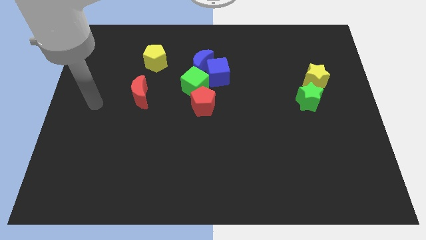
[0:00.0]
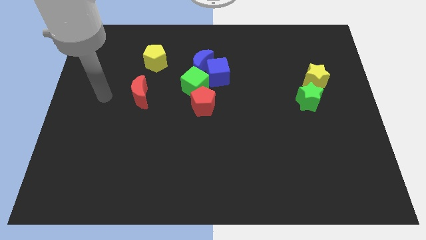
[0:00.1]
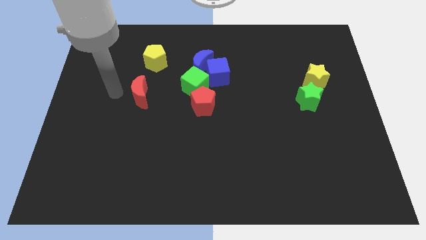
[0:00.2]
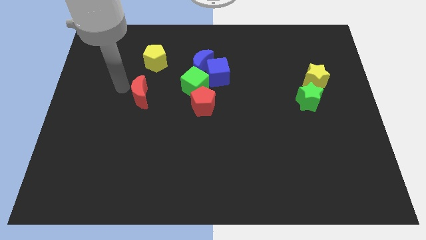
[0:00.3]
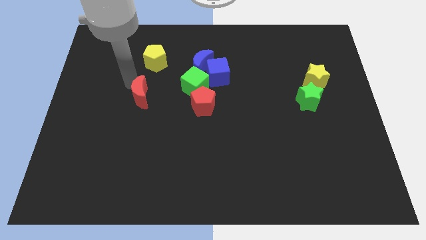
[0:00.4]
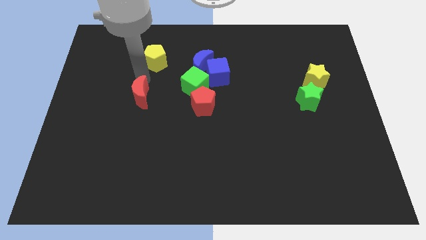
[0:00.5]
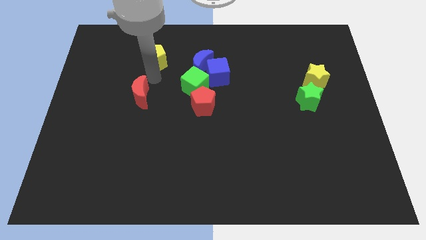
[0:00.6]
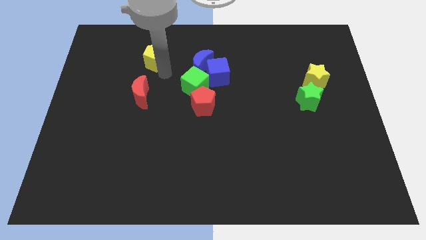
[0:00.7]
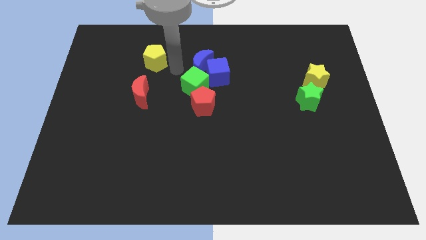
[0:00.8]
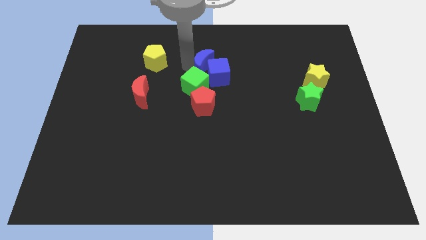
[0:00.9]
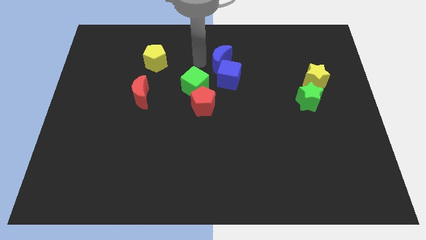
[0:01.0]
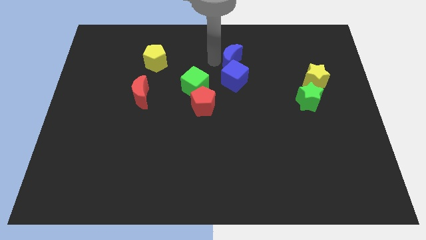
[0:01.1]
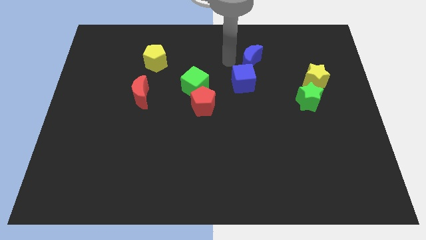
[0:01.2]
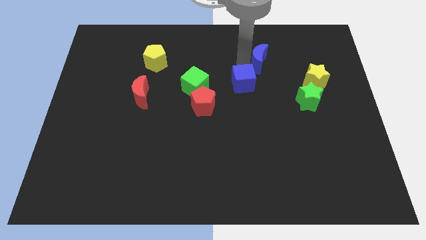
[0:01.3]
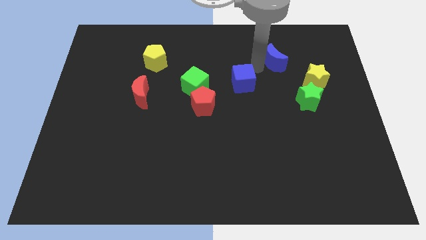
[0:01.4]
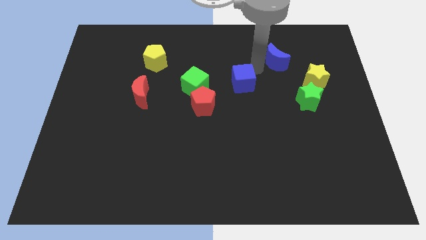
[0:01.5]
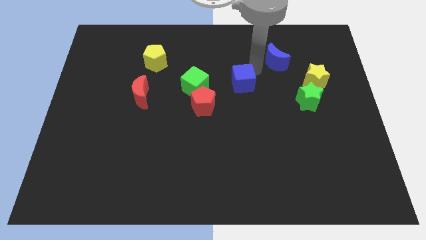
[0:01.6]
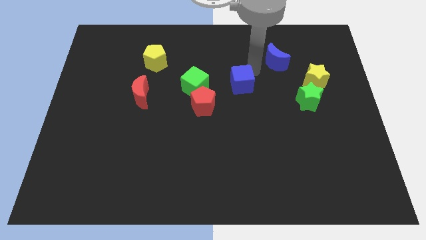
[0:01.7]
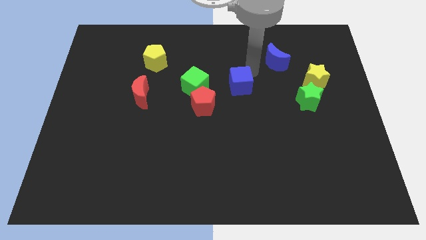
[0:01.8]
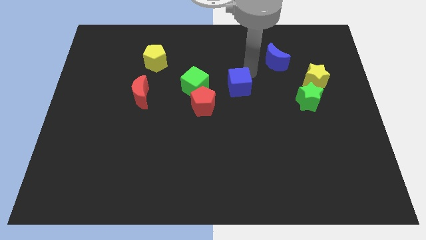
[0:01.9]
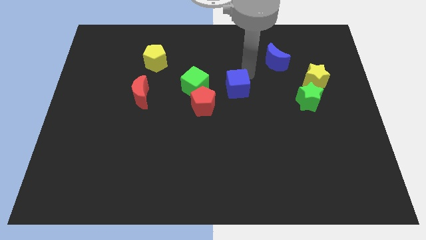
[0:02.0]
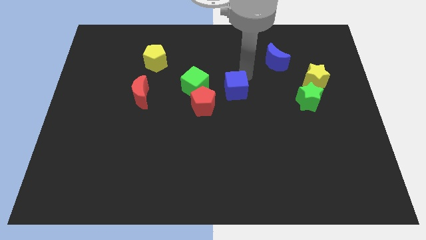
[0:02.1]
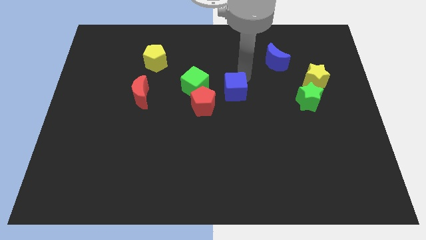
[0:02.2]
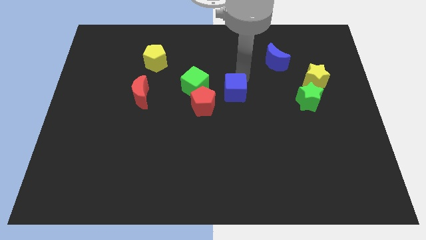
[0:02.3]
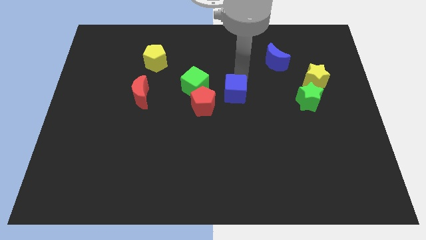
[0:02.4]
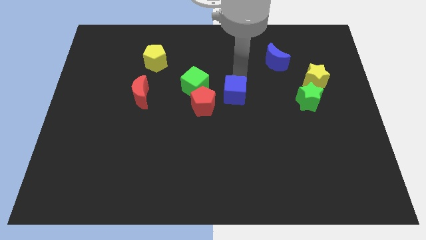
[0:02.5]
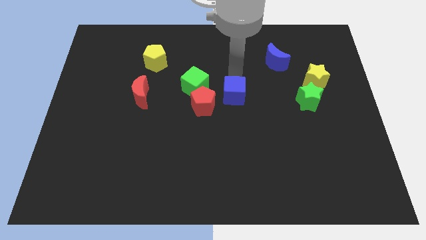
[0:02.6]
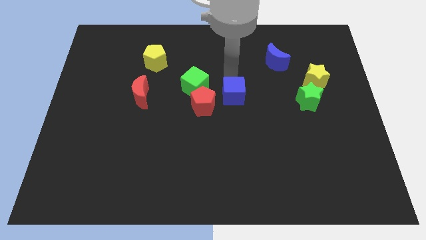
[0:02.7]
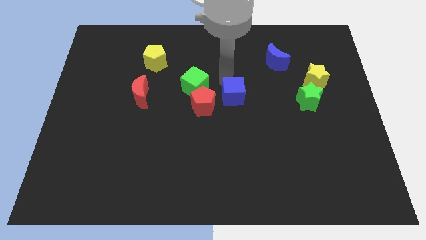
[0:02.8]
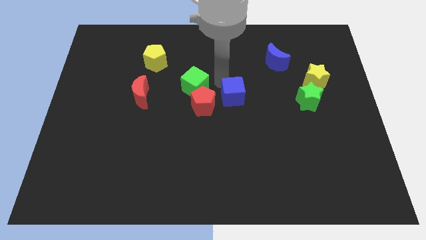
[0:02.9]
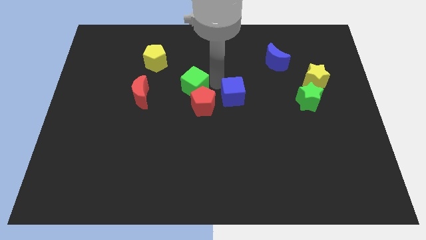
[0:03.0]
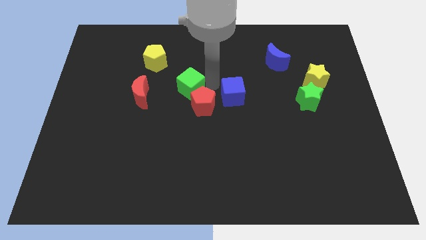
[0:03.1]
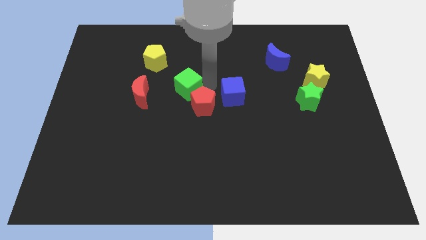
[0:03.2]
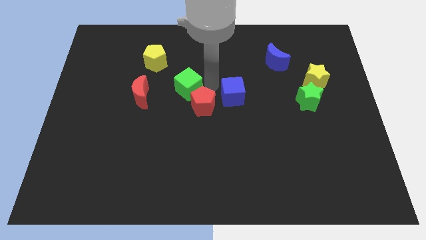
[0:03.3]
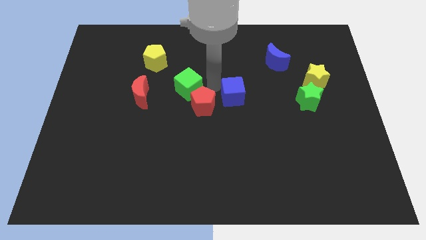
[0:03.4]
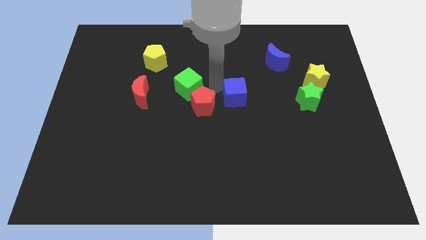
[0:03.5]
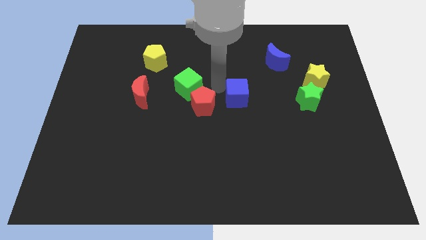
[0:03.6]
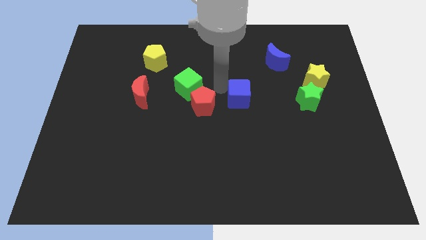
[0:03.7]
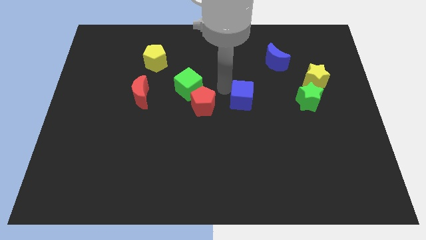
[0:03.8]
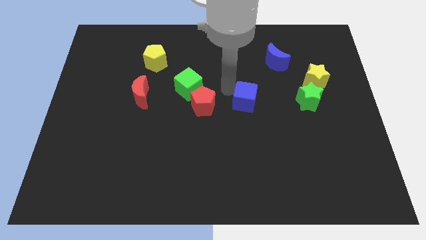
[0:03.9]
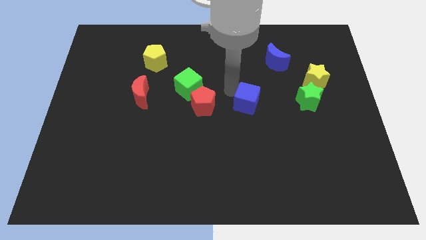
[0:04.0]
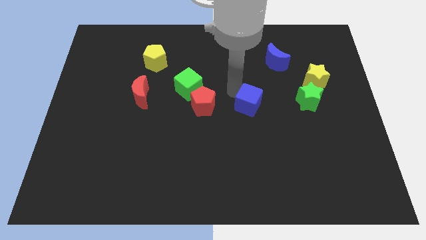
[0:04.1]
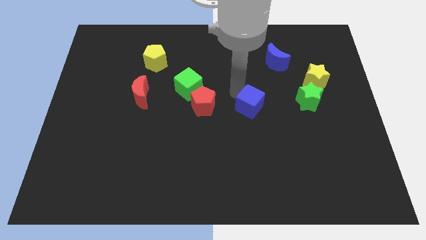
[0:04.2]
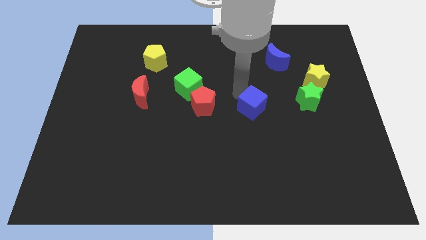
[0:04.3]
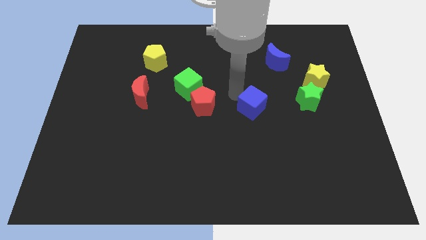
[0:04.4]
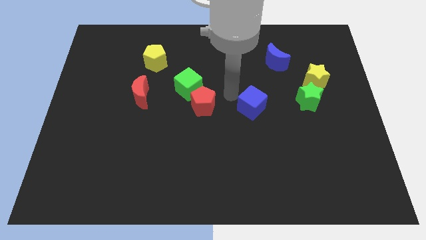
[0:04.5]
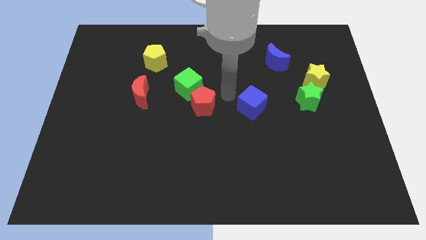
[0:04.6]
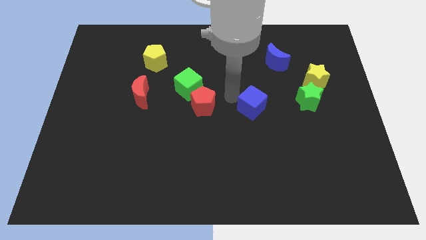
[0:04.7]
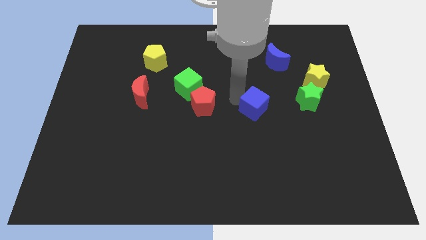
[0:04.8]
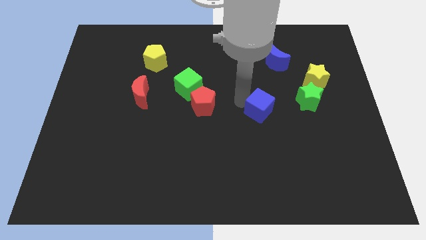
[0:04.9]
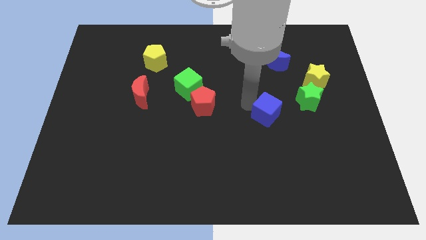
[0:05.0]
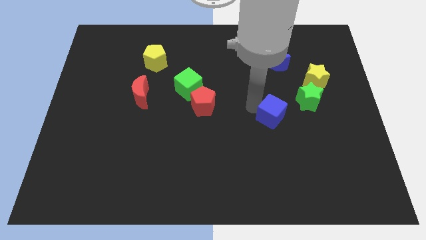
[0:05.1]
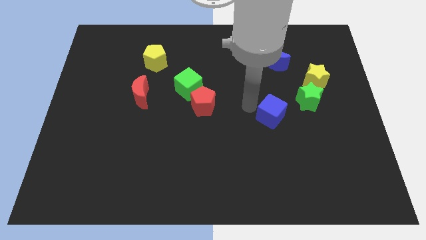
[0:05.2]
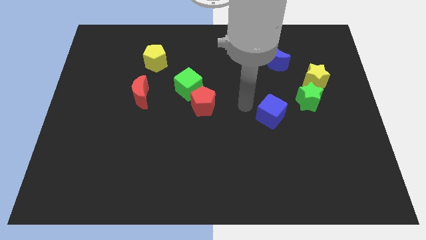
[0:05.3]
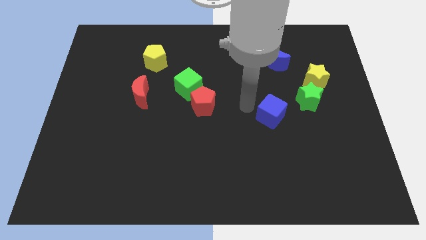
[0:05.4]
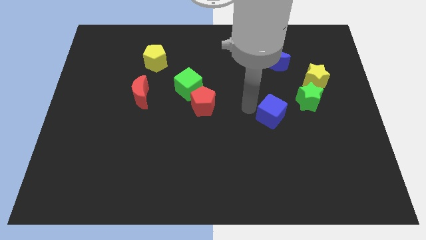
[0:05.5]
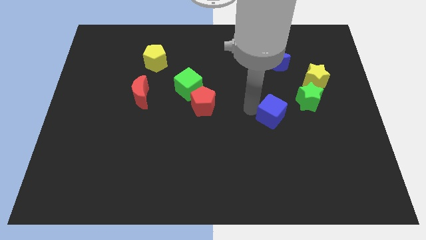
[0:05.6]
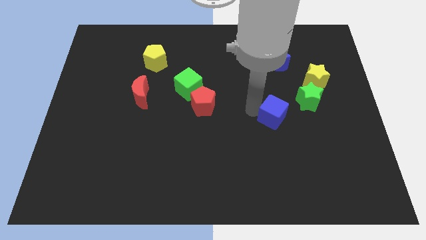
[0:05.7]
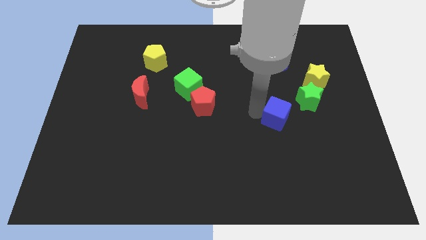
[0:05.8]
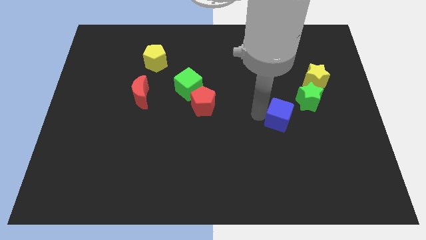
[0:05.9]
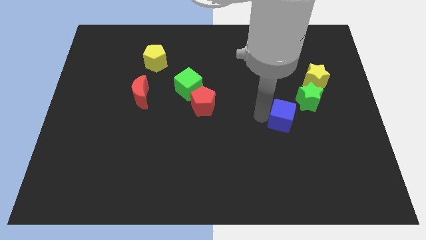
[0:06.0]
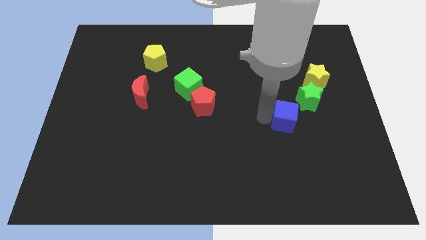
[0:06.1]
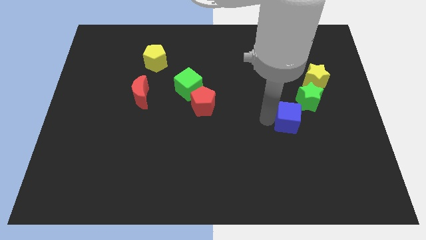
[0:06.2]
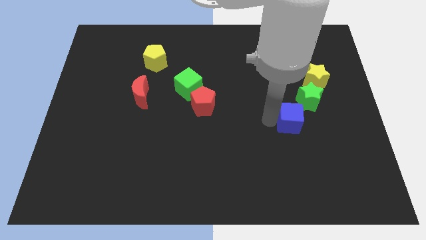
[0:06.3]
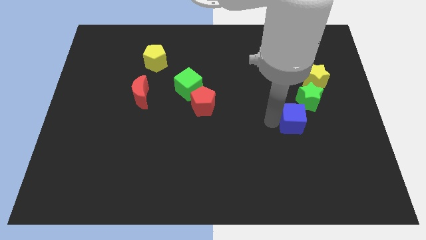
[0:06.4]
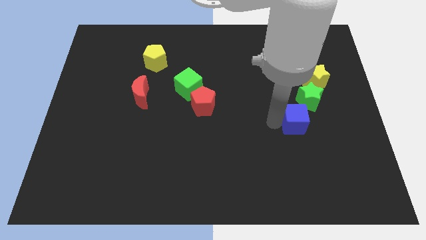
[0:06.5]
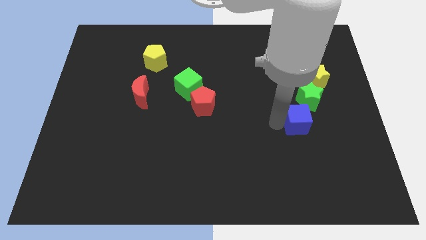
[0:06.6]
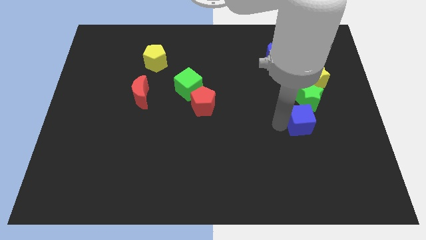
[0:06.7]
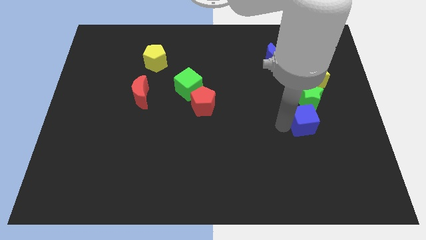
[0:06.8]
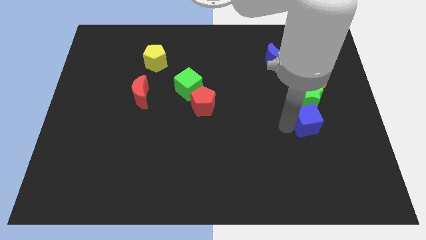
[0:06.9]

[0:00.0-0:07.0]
move the blue cube to the bottom side of the yellow star
